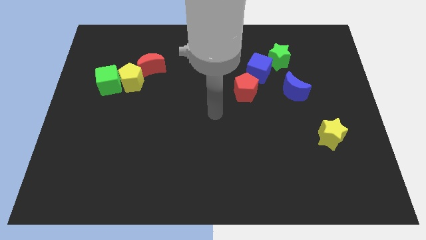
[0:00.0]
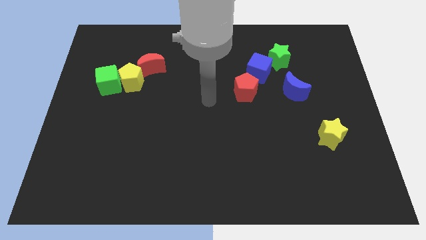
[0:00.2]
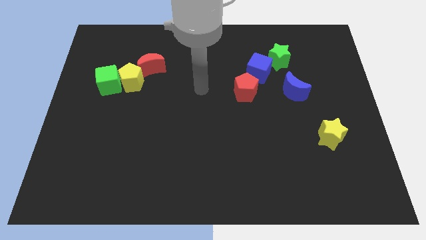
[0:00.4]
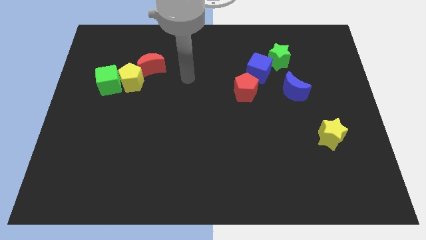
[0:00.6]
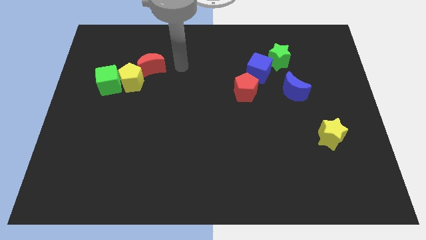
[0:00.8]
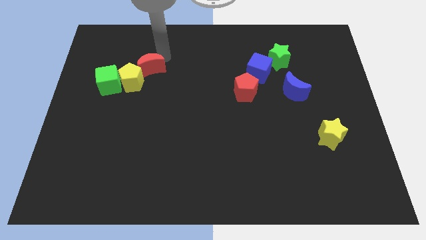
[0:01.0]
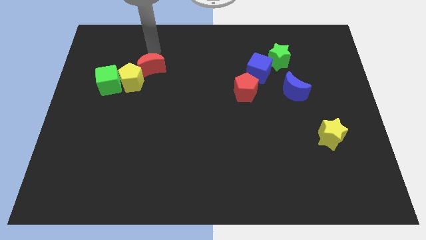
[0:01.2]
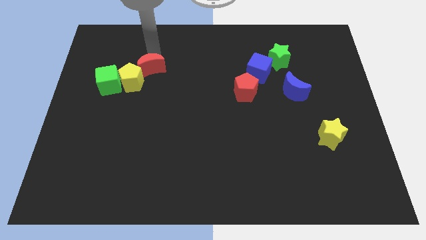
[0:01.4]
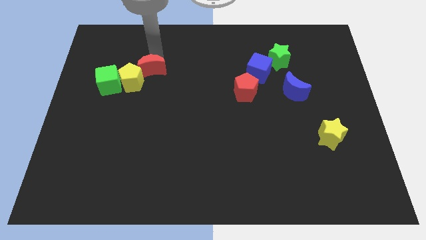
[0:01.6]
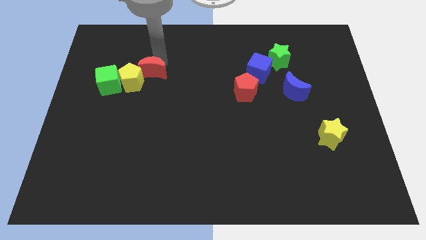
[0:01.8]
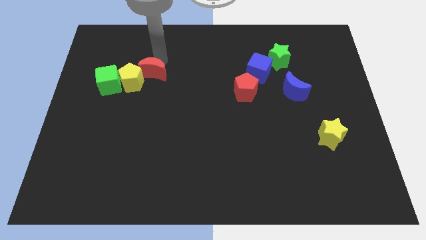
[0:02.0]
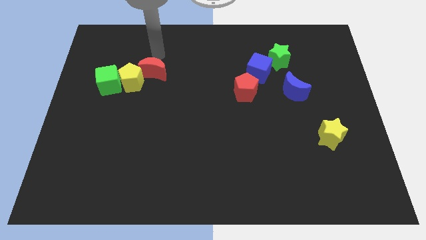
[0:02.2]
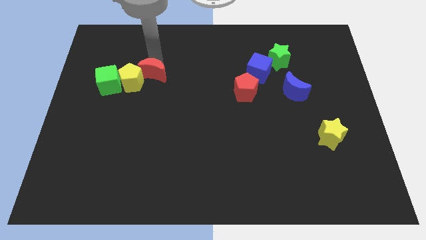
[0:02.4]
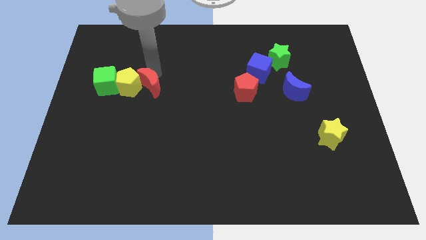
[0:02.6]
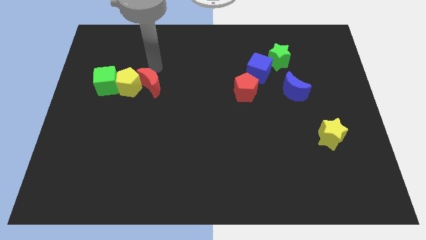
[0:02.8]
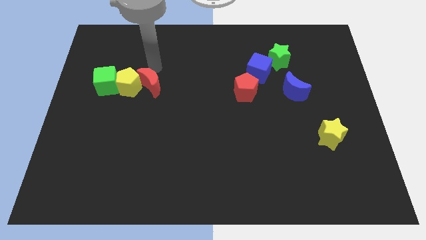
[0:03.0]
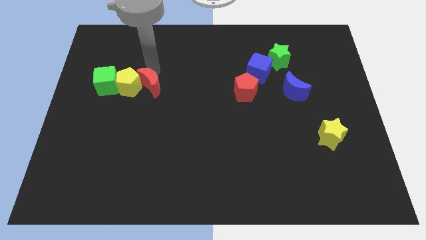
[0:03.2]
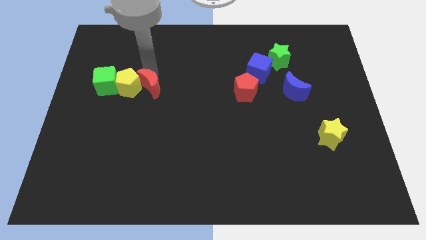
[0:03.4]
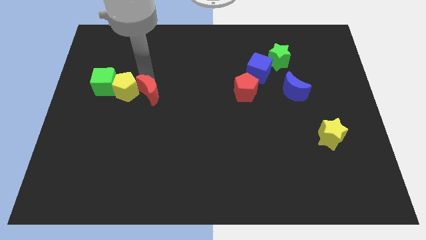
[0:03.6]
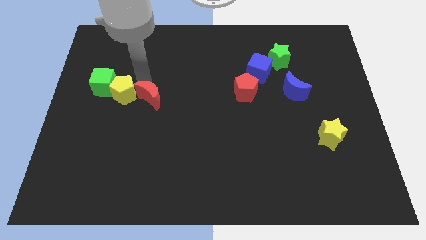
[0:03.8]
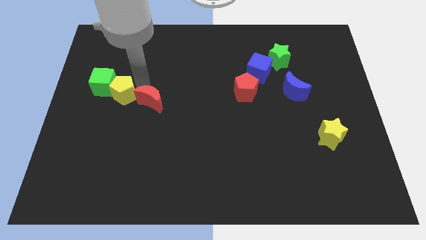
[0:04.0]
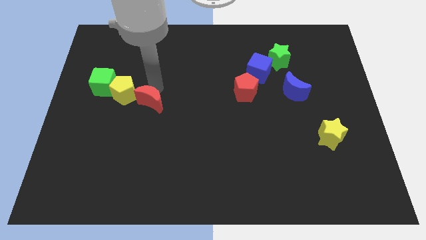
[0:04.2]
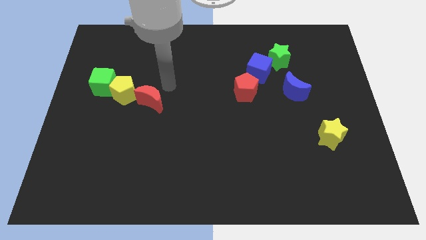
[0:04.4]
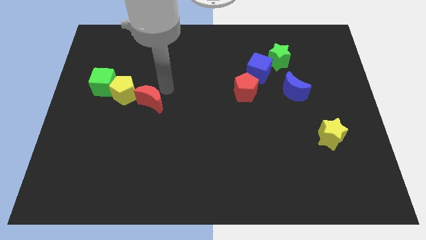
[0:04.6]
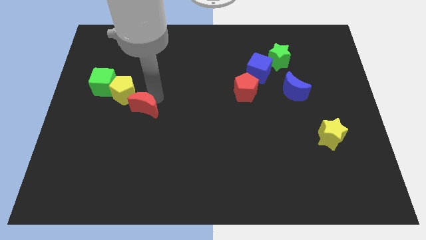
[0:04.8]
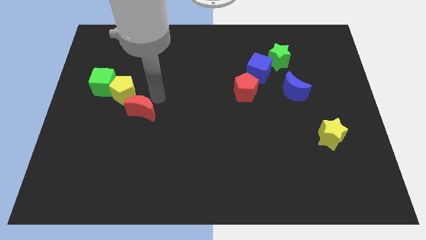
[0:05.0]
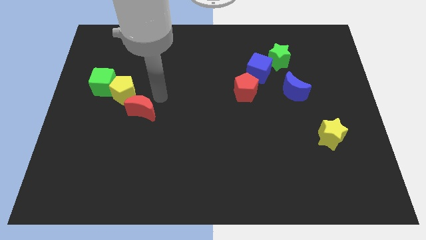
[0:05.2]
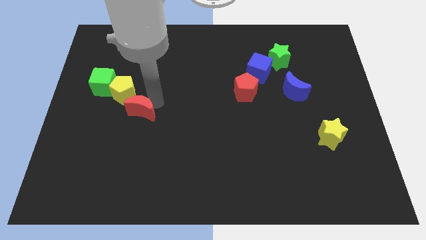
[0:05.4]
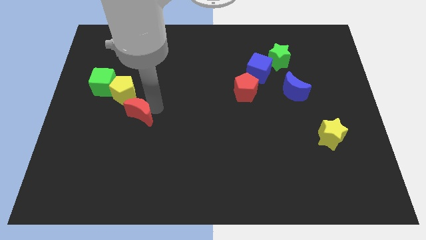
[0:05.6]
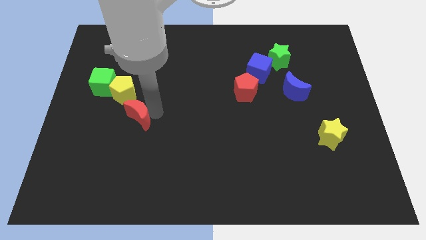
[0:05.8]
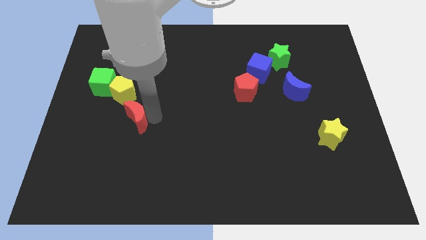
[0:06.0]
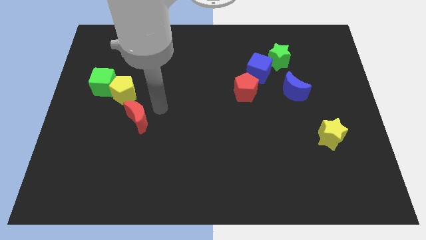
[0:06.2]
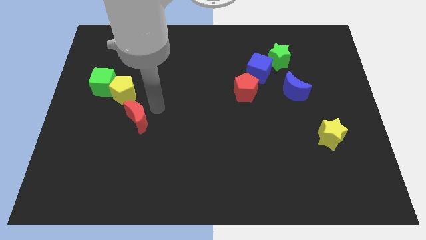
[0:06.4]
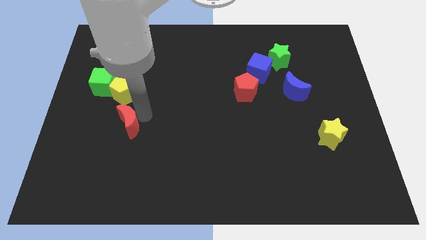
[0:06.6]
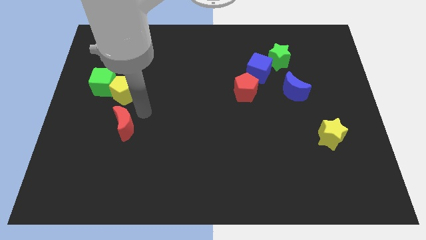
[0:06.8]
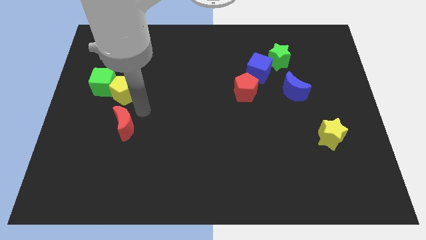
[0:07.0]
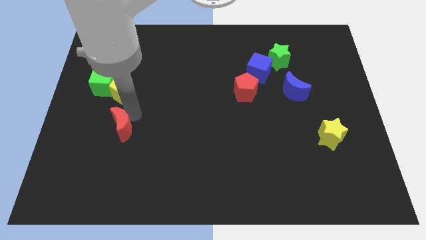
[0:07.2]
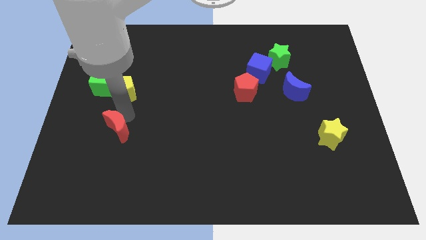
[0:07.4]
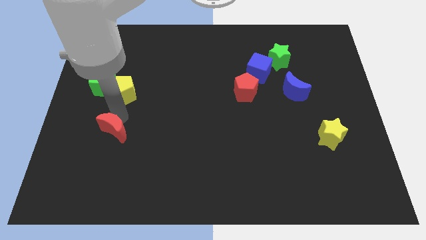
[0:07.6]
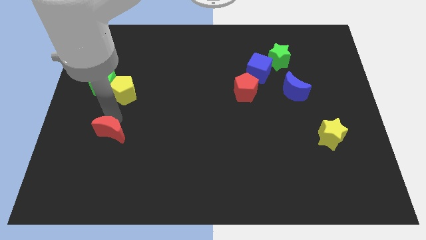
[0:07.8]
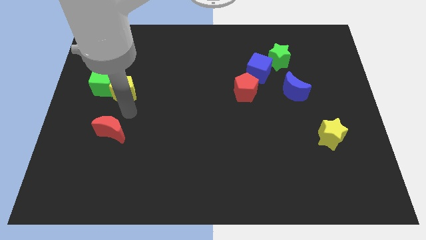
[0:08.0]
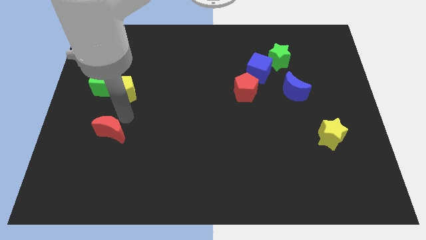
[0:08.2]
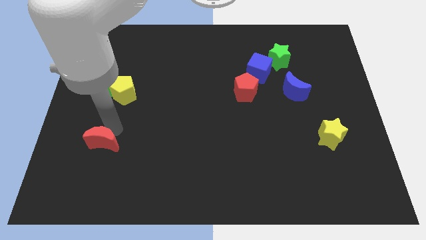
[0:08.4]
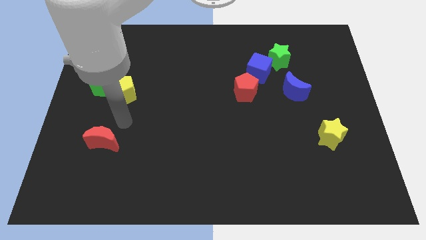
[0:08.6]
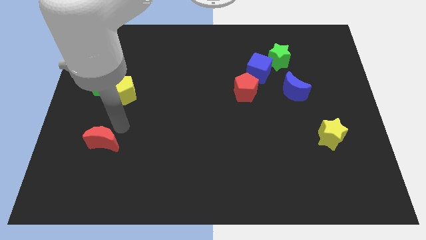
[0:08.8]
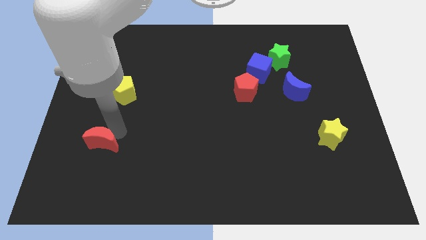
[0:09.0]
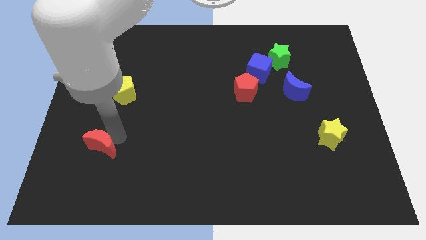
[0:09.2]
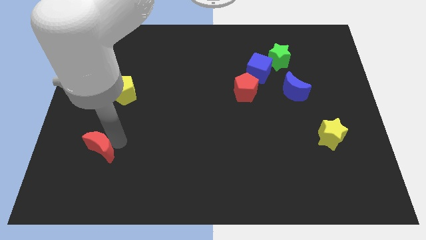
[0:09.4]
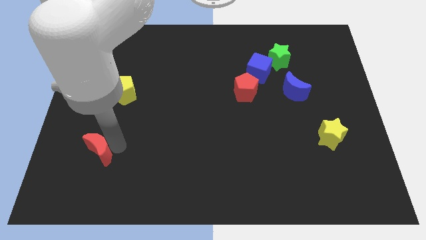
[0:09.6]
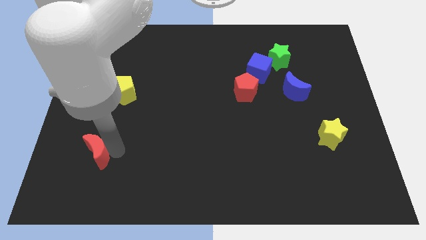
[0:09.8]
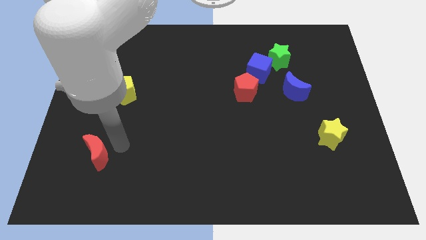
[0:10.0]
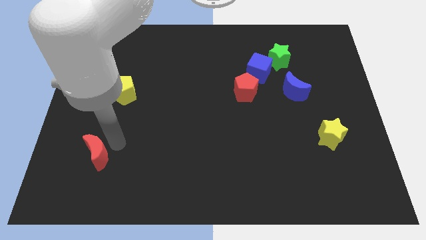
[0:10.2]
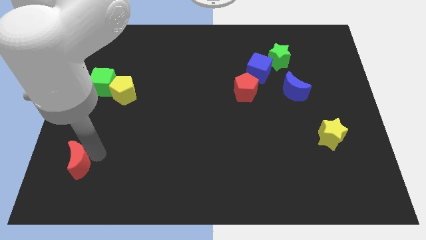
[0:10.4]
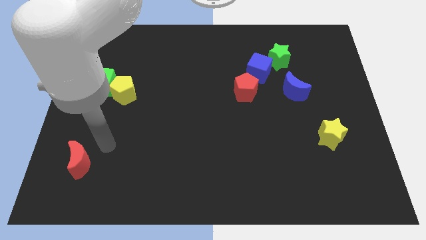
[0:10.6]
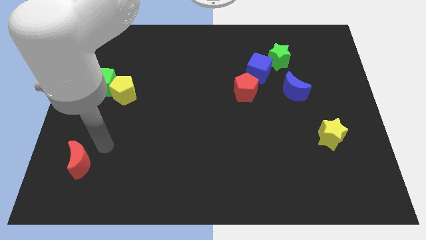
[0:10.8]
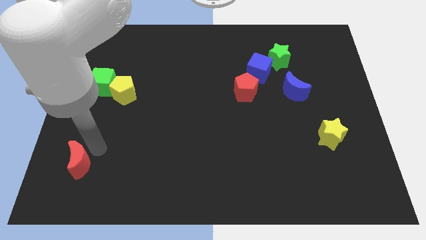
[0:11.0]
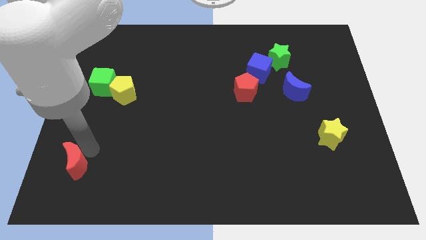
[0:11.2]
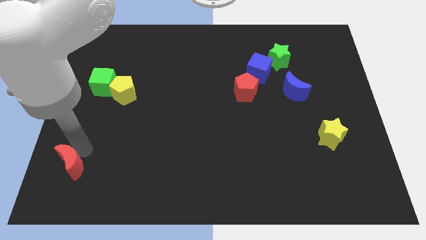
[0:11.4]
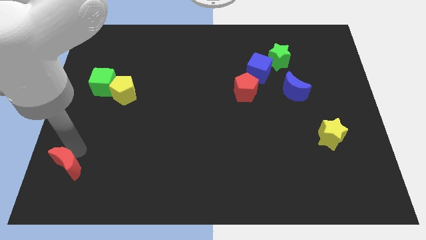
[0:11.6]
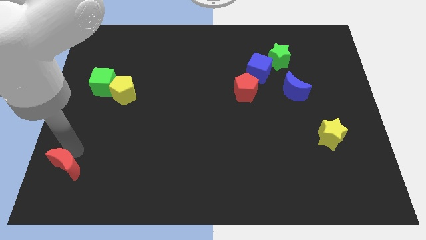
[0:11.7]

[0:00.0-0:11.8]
move the red moon to the lower left corner

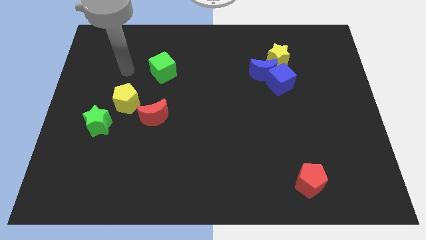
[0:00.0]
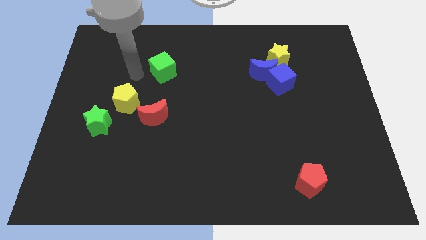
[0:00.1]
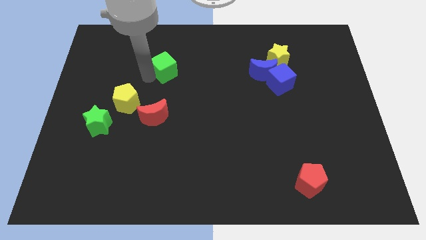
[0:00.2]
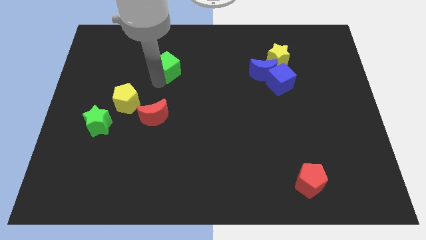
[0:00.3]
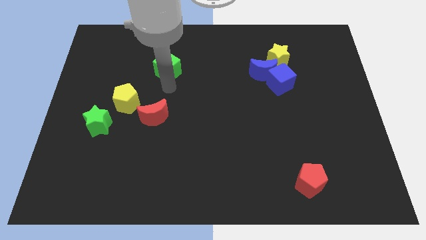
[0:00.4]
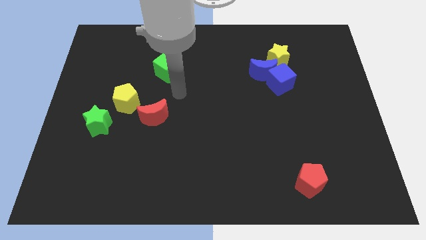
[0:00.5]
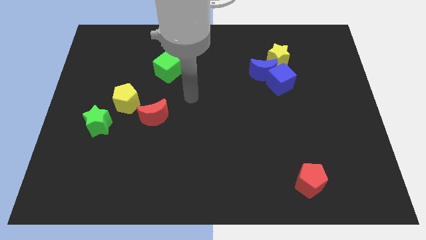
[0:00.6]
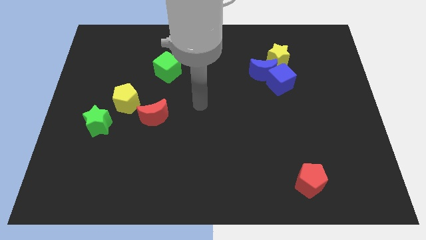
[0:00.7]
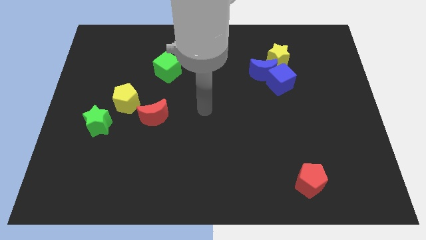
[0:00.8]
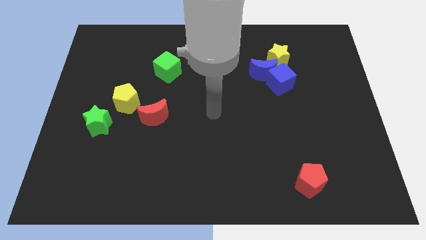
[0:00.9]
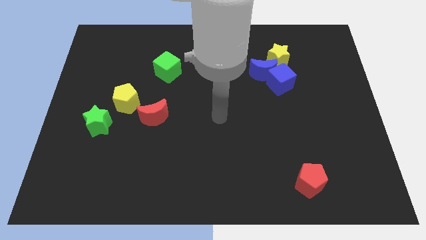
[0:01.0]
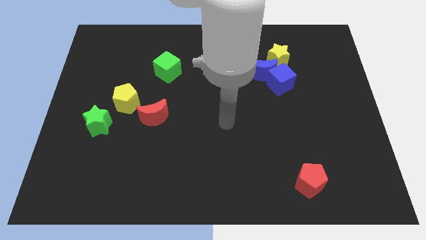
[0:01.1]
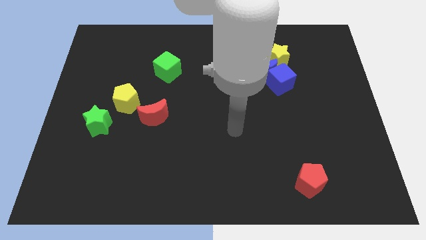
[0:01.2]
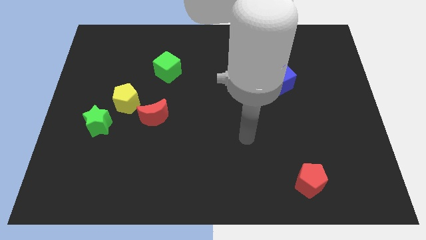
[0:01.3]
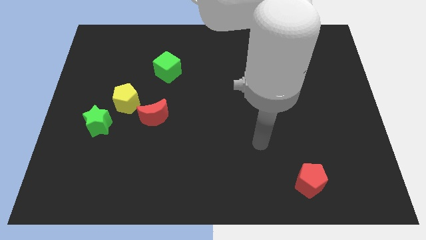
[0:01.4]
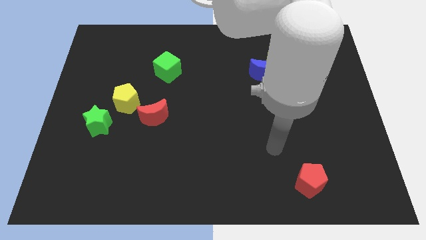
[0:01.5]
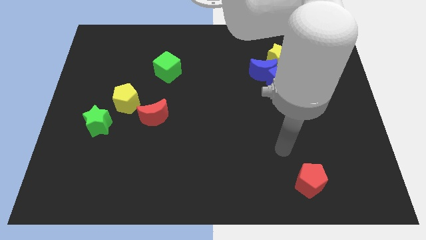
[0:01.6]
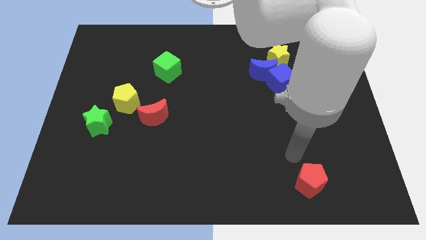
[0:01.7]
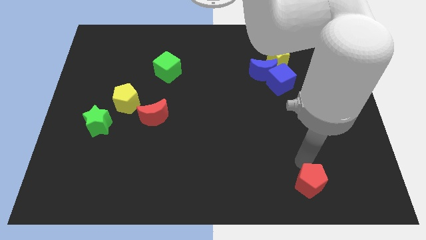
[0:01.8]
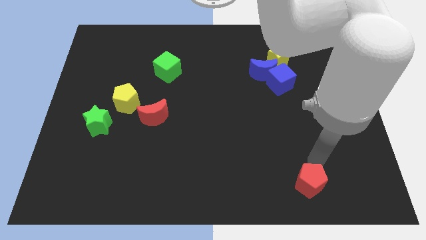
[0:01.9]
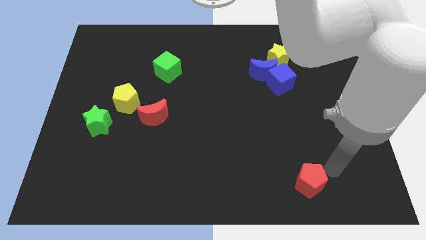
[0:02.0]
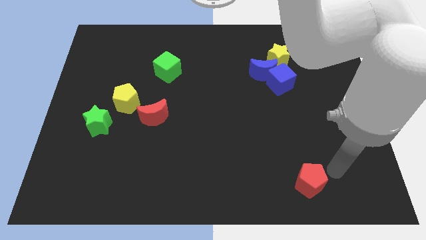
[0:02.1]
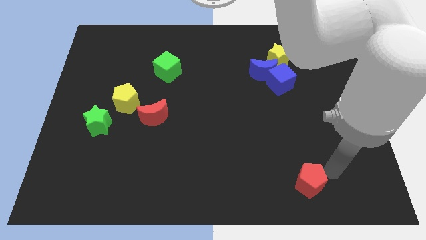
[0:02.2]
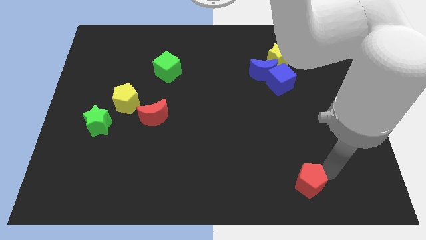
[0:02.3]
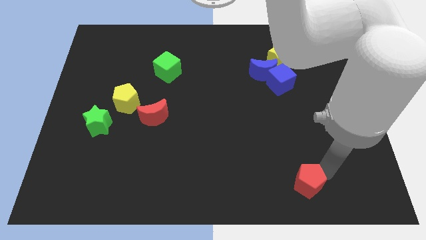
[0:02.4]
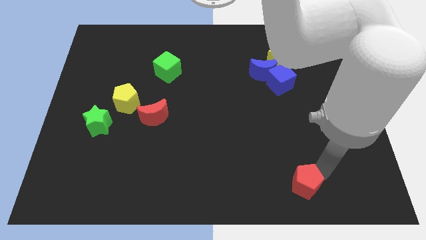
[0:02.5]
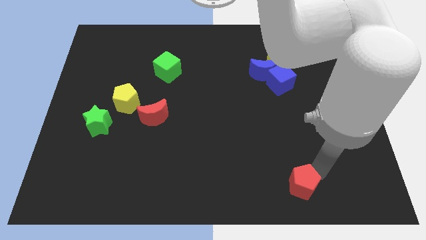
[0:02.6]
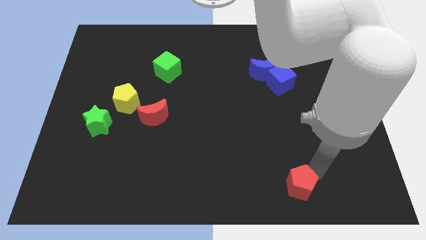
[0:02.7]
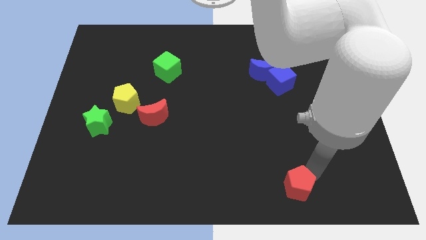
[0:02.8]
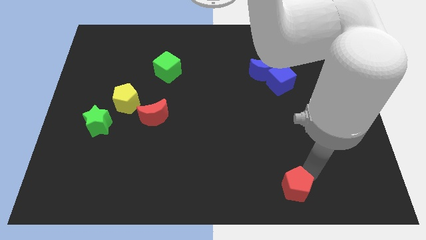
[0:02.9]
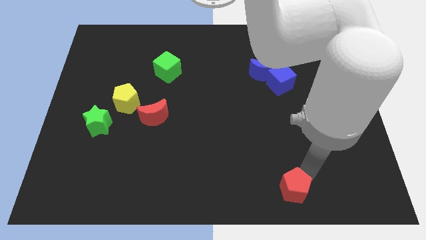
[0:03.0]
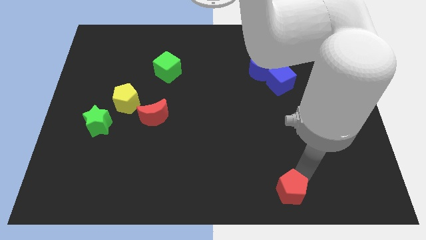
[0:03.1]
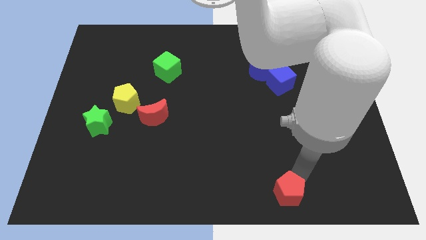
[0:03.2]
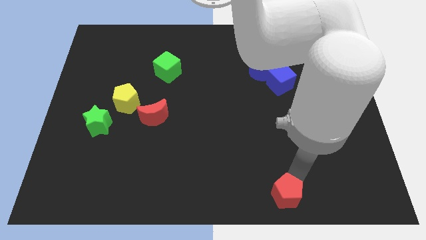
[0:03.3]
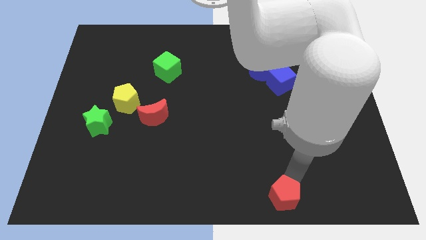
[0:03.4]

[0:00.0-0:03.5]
put the red pentagon to the bottom
